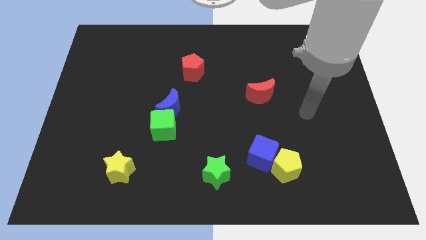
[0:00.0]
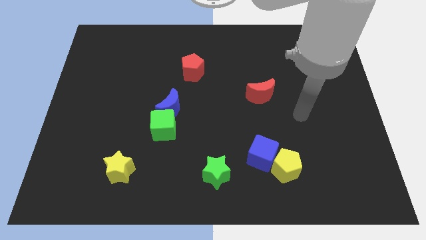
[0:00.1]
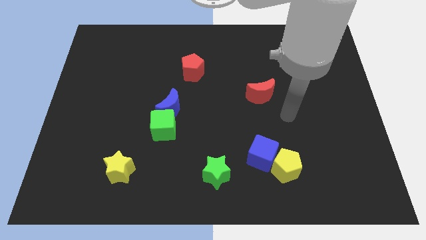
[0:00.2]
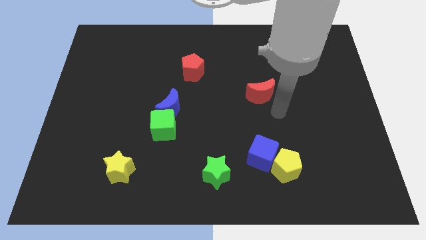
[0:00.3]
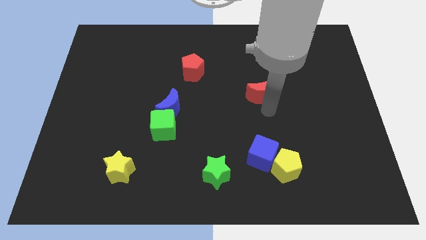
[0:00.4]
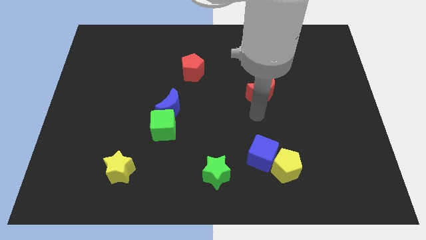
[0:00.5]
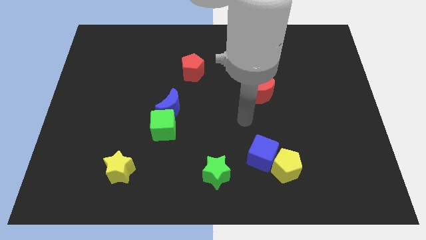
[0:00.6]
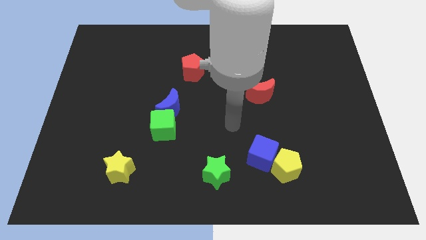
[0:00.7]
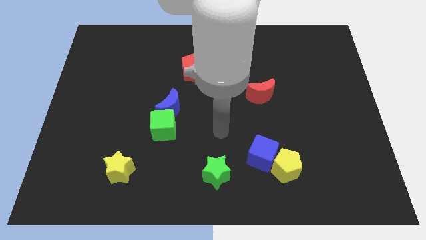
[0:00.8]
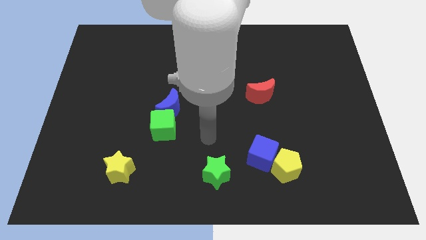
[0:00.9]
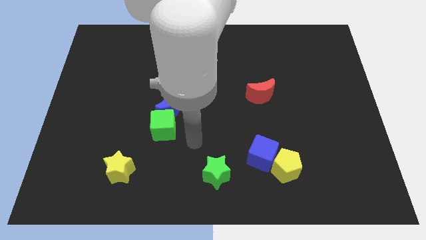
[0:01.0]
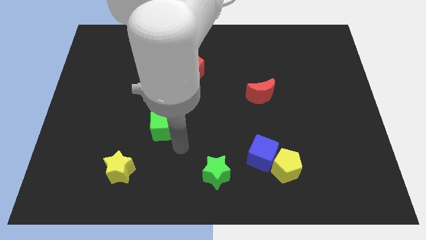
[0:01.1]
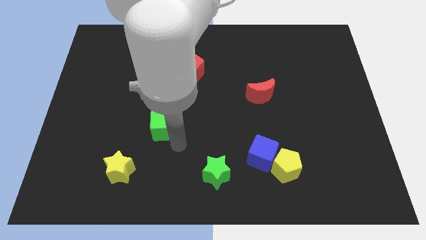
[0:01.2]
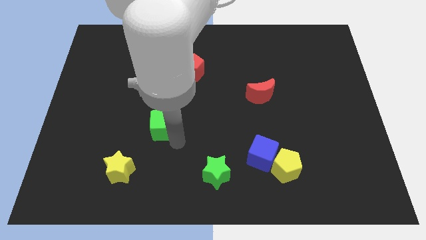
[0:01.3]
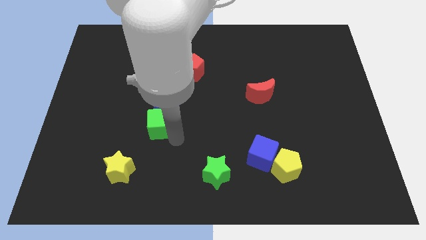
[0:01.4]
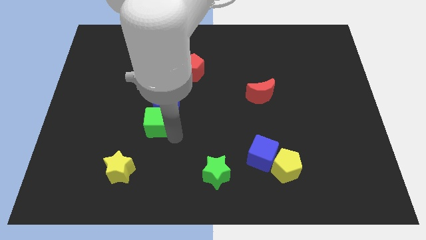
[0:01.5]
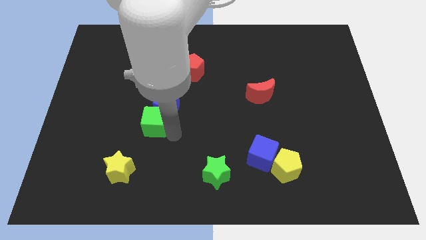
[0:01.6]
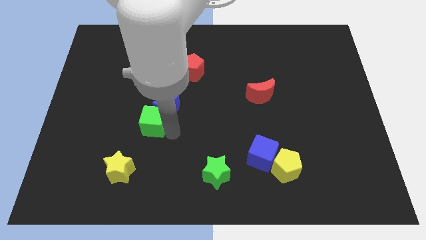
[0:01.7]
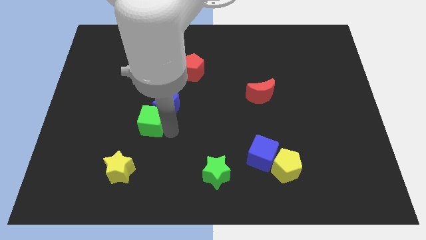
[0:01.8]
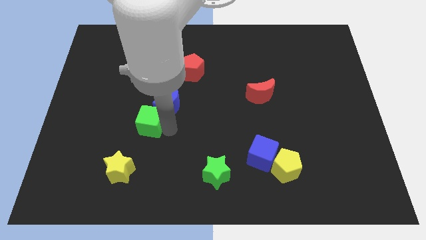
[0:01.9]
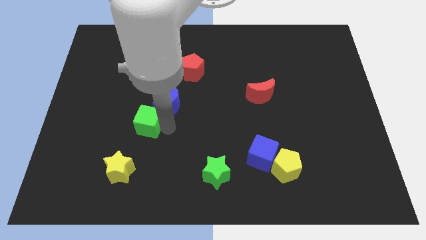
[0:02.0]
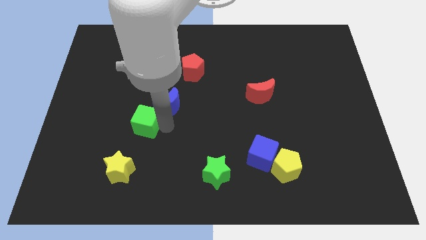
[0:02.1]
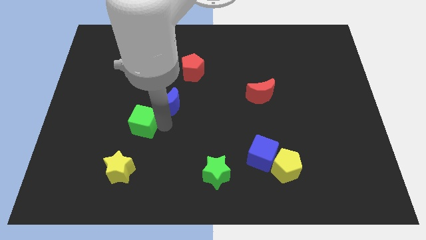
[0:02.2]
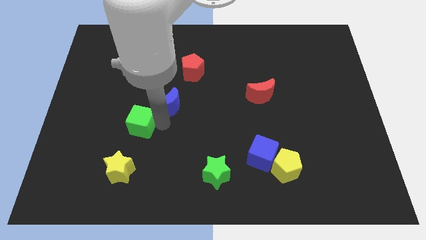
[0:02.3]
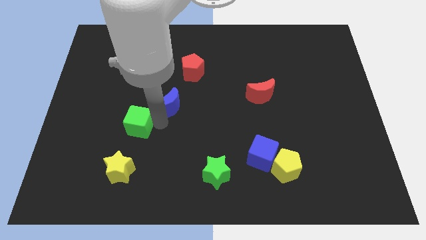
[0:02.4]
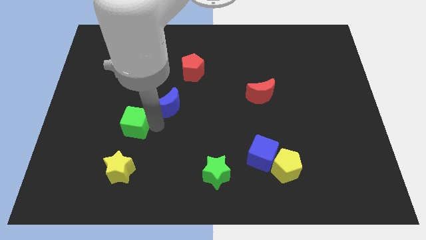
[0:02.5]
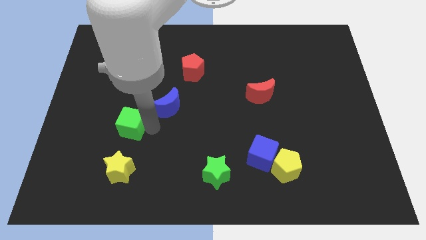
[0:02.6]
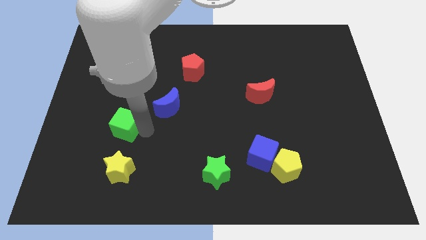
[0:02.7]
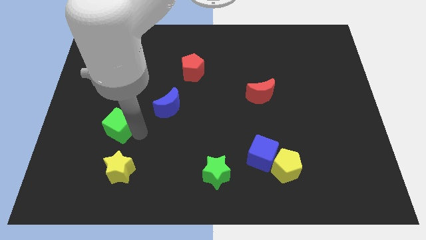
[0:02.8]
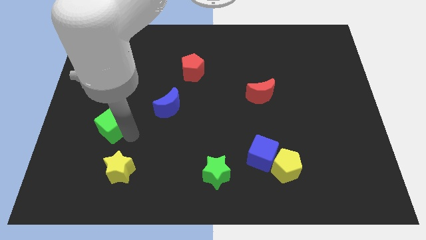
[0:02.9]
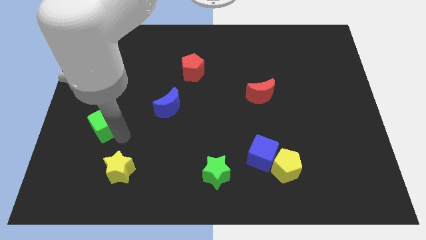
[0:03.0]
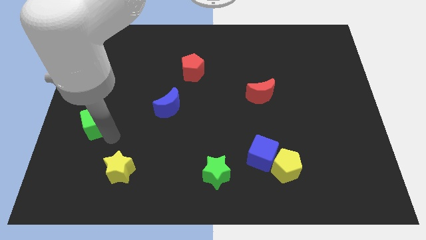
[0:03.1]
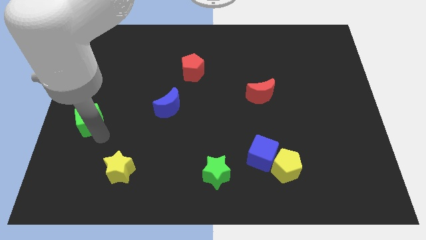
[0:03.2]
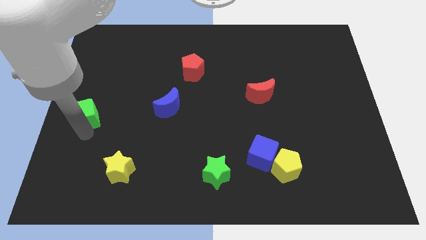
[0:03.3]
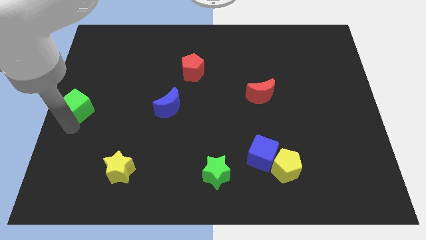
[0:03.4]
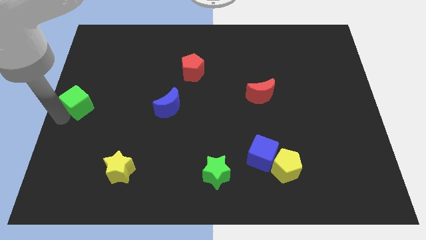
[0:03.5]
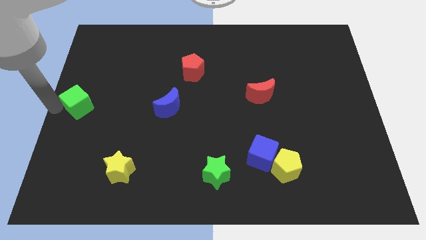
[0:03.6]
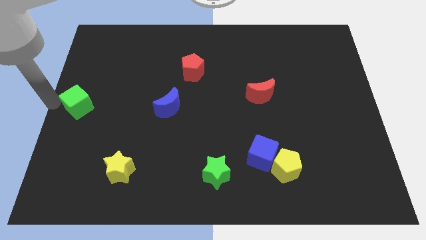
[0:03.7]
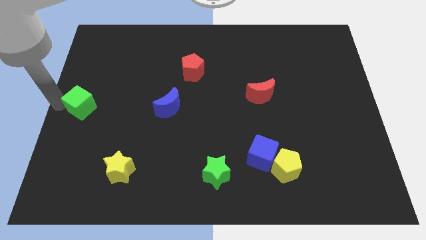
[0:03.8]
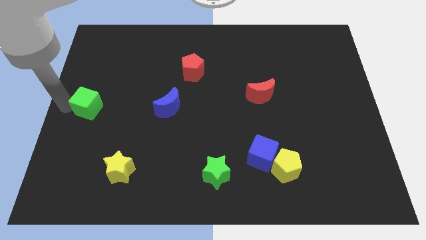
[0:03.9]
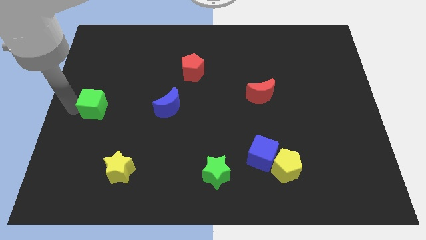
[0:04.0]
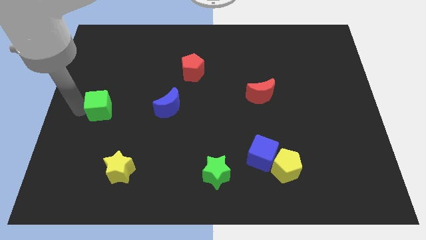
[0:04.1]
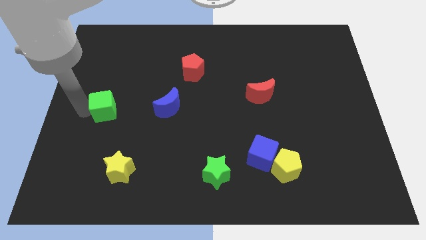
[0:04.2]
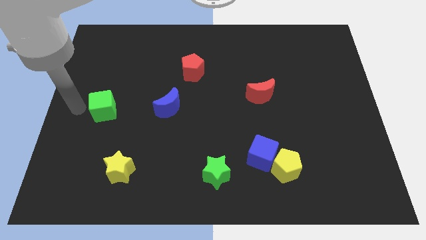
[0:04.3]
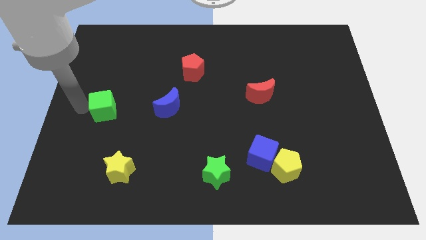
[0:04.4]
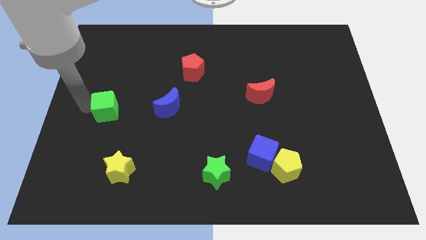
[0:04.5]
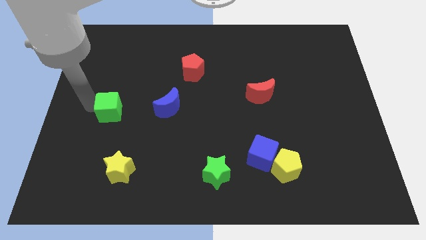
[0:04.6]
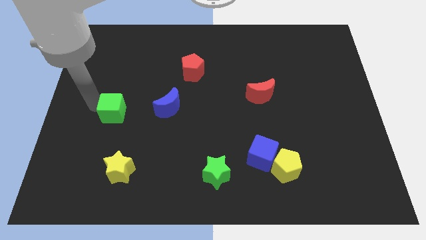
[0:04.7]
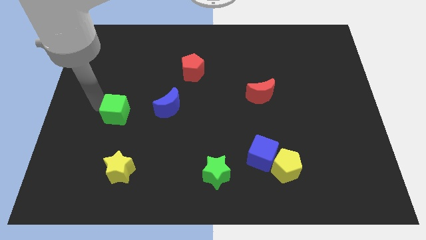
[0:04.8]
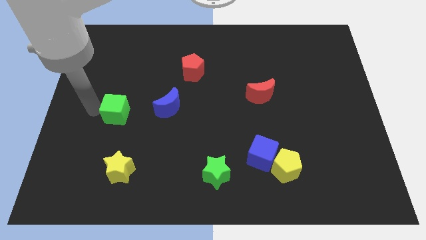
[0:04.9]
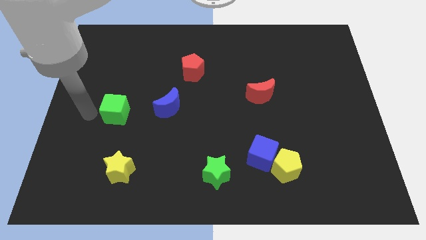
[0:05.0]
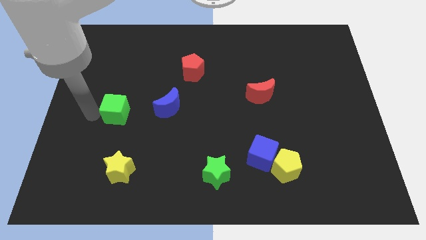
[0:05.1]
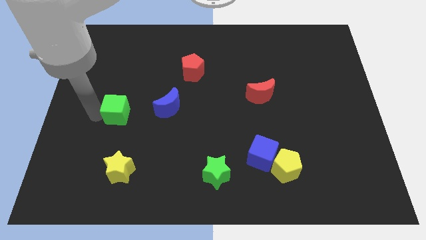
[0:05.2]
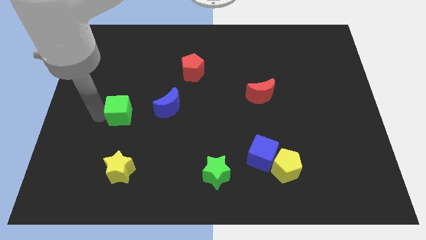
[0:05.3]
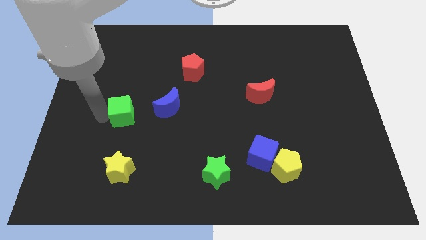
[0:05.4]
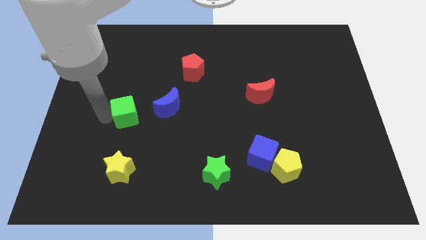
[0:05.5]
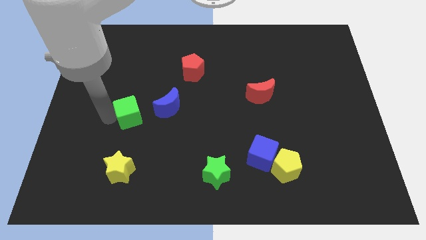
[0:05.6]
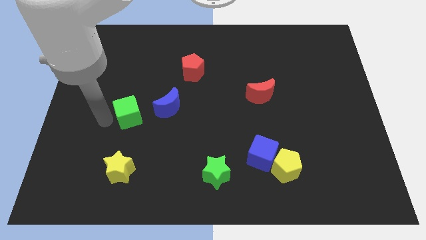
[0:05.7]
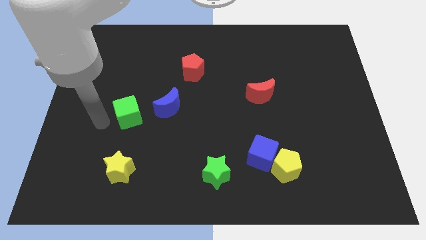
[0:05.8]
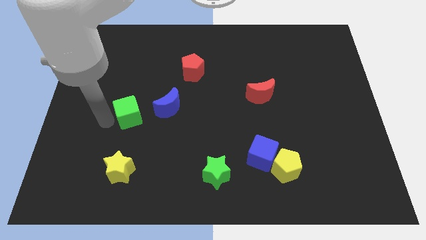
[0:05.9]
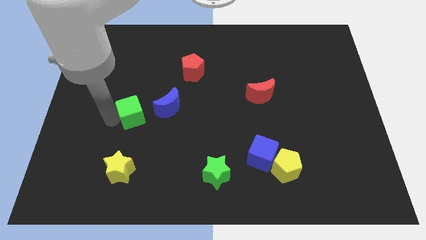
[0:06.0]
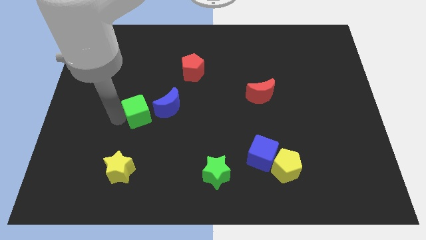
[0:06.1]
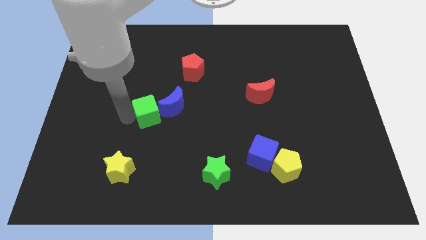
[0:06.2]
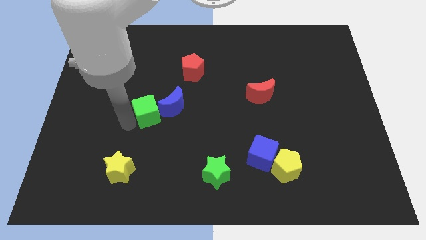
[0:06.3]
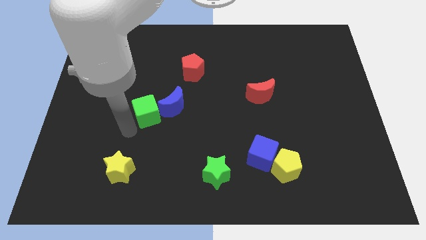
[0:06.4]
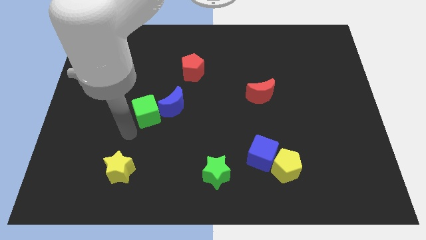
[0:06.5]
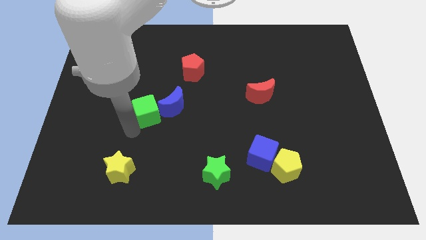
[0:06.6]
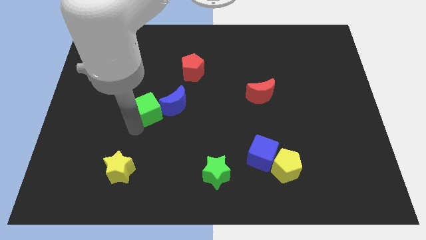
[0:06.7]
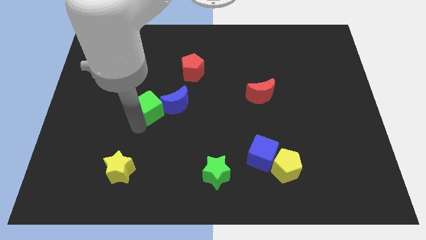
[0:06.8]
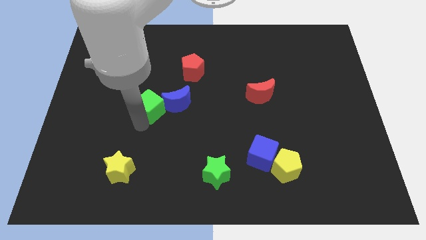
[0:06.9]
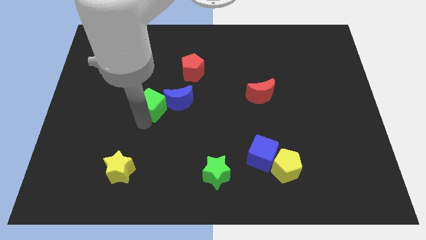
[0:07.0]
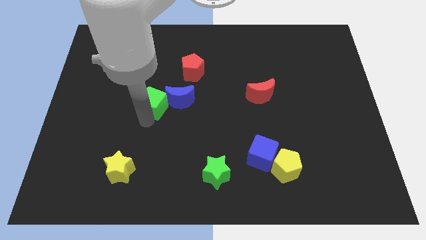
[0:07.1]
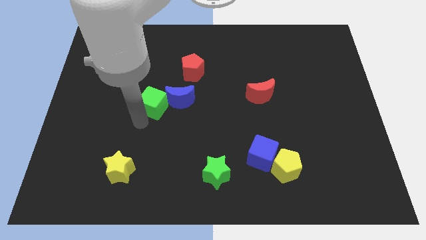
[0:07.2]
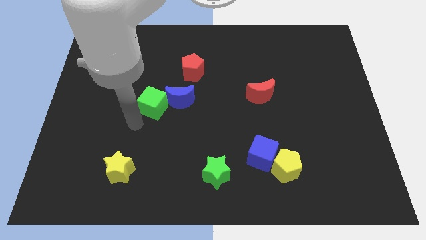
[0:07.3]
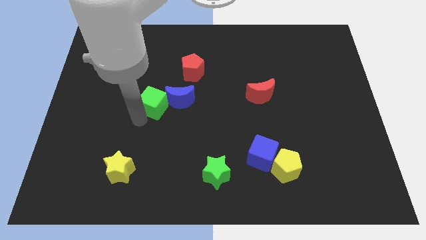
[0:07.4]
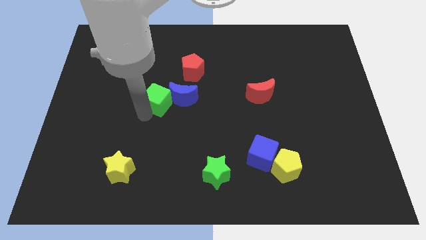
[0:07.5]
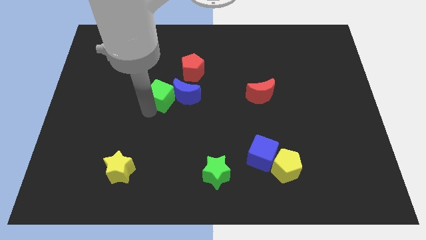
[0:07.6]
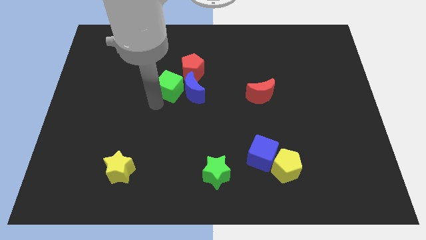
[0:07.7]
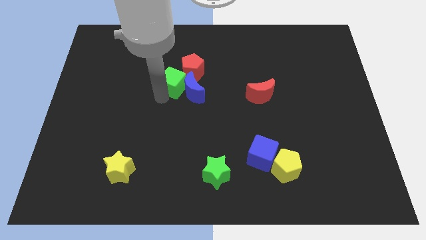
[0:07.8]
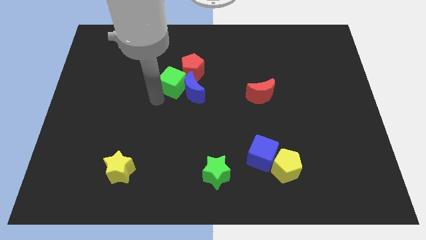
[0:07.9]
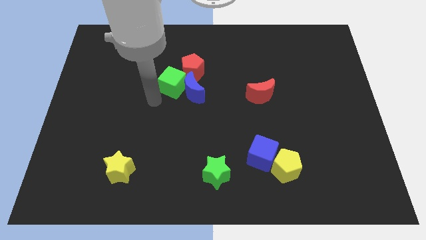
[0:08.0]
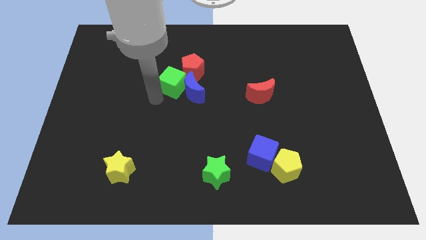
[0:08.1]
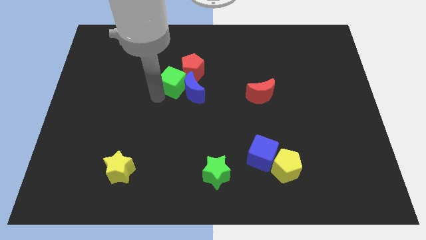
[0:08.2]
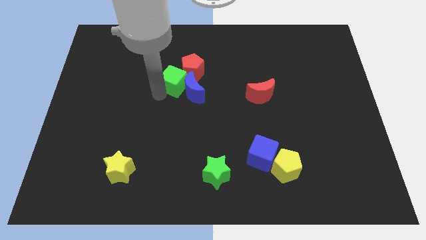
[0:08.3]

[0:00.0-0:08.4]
put the green cube close to the red pentagon
